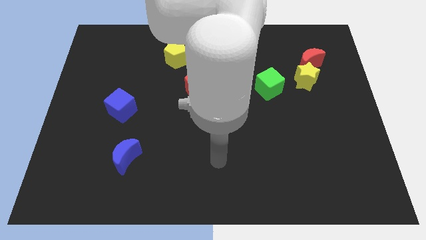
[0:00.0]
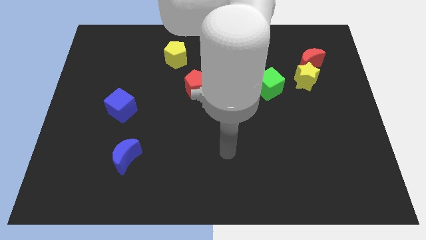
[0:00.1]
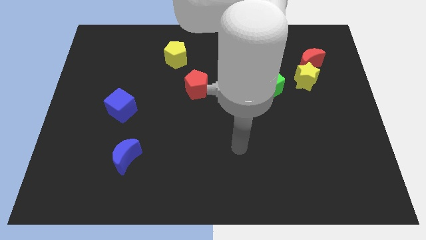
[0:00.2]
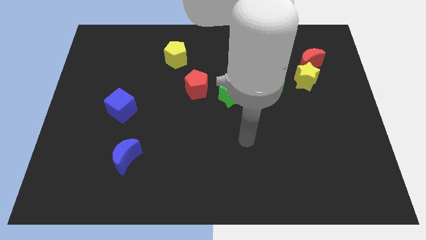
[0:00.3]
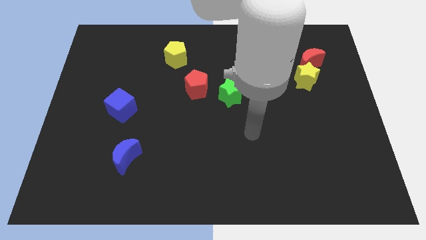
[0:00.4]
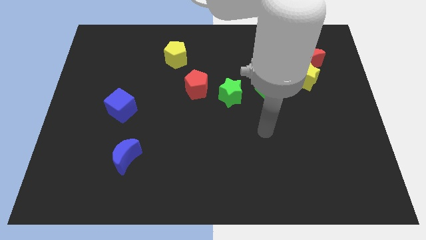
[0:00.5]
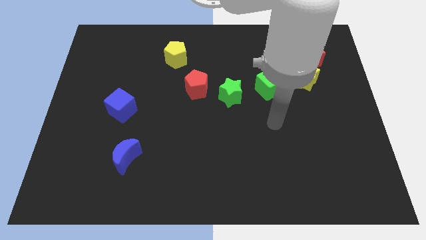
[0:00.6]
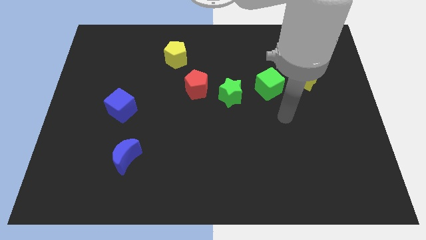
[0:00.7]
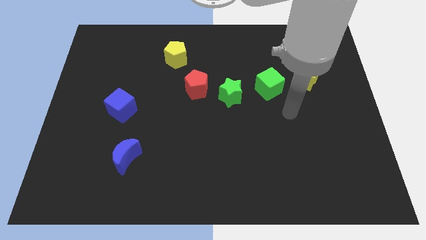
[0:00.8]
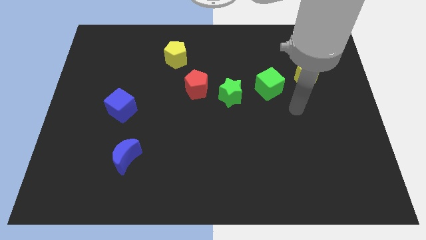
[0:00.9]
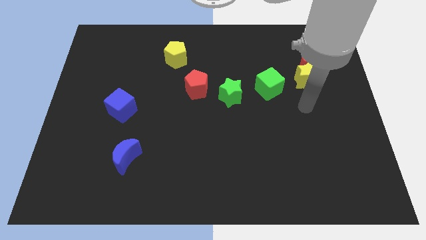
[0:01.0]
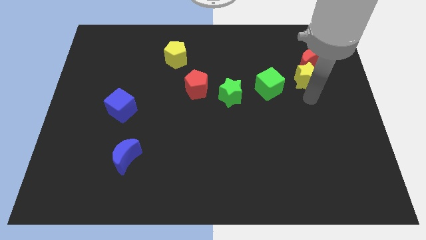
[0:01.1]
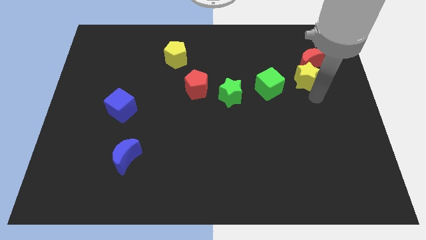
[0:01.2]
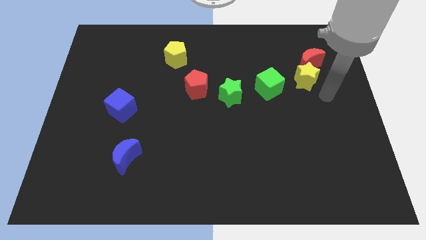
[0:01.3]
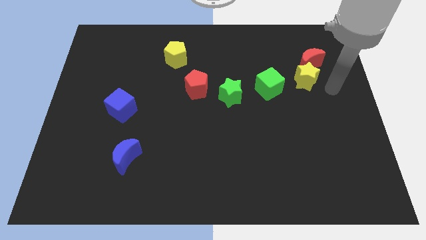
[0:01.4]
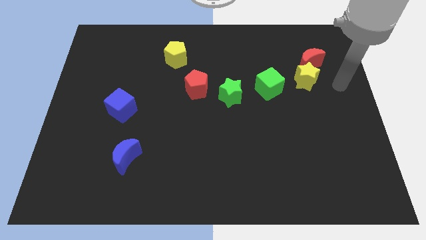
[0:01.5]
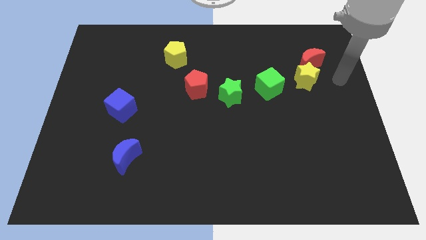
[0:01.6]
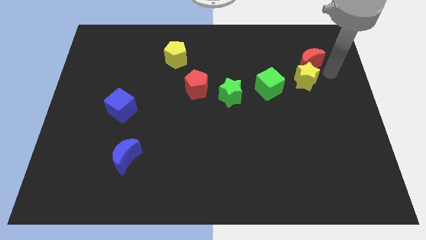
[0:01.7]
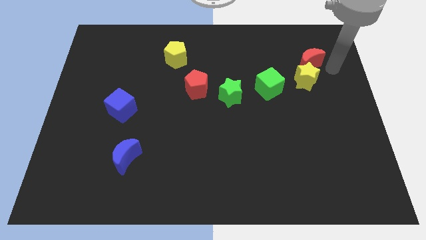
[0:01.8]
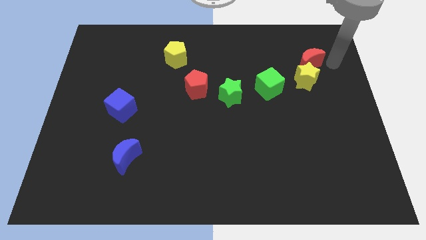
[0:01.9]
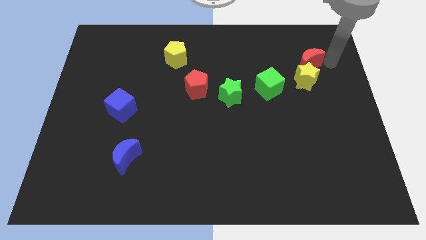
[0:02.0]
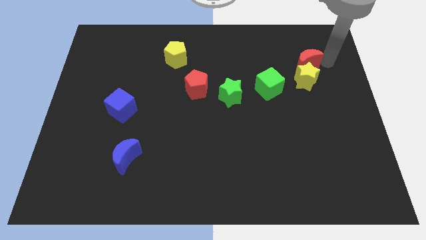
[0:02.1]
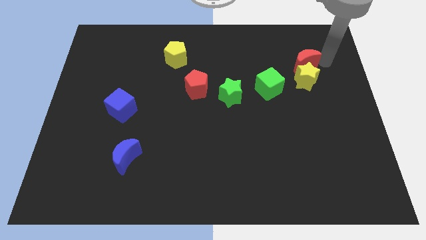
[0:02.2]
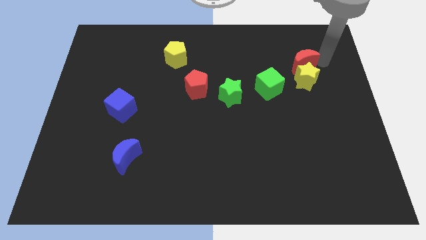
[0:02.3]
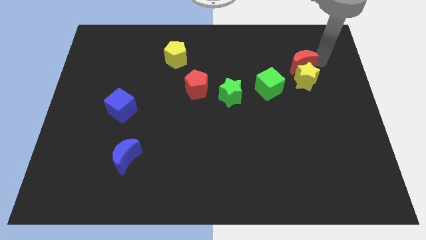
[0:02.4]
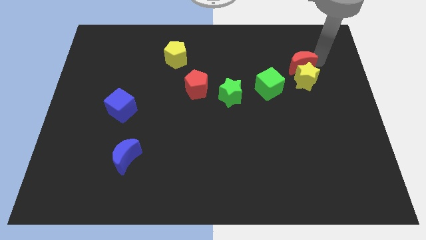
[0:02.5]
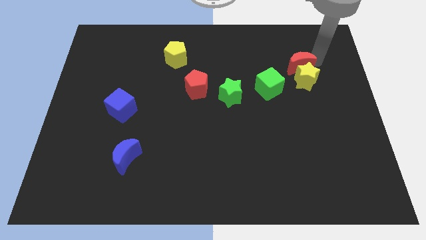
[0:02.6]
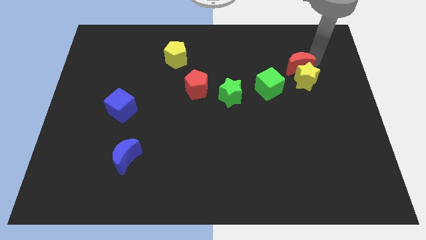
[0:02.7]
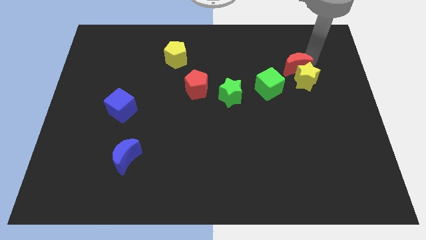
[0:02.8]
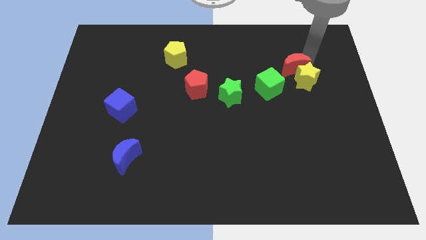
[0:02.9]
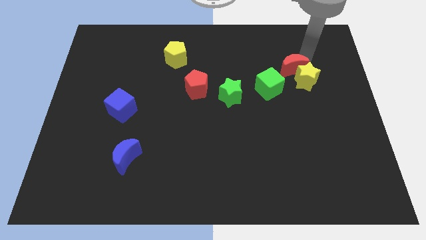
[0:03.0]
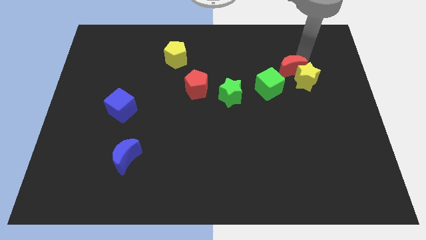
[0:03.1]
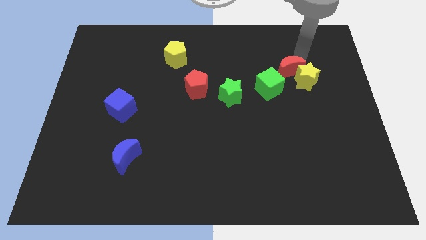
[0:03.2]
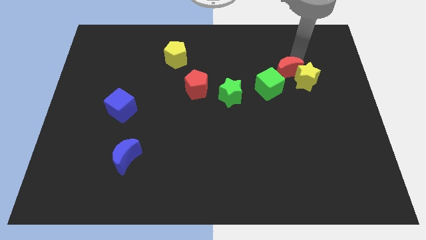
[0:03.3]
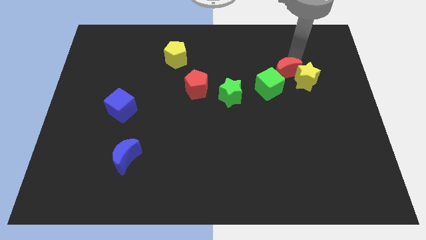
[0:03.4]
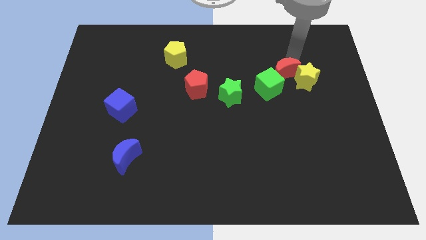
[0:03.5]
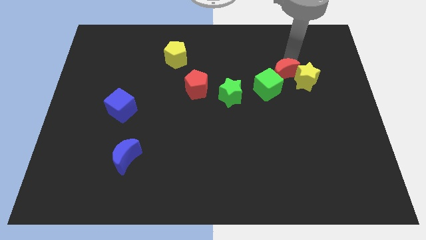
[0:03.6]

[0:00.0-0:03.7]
slightly slide the red moon to the left

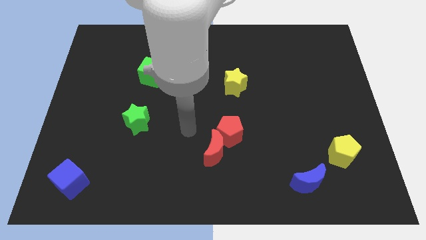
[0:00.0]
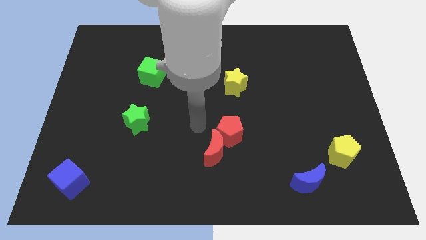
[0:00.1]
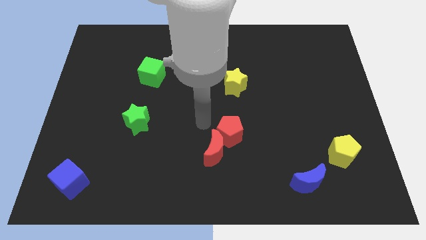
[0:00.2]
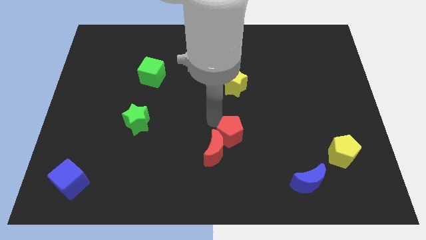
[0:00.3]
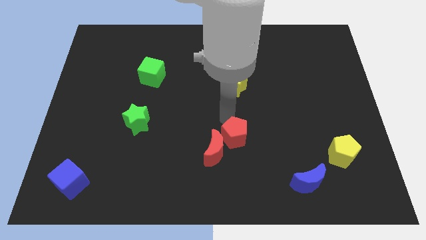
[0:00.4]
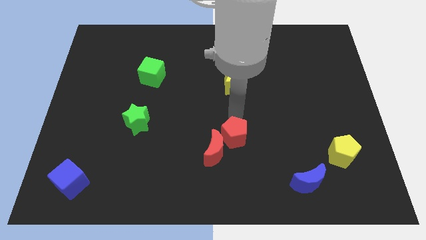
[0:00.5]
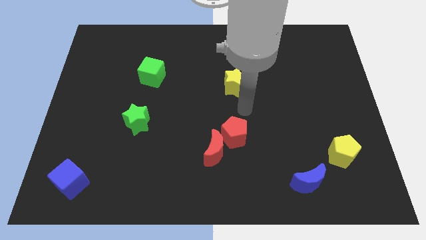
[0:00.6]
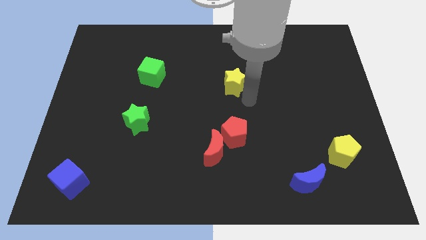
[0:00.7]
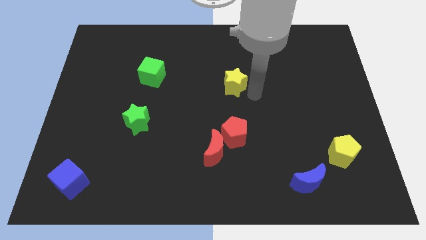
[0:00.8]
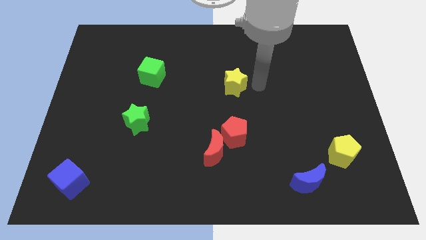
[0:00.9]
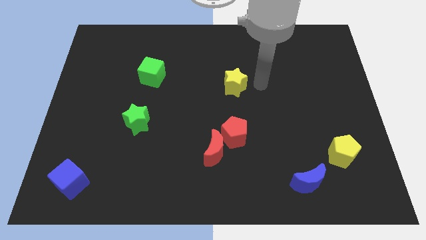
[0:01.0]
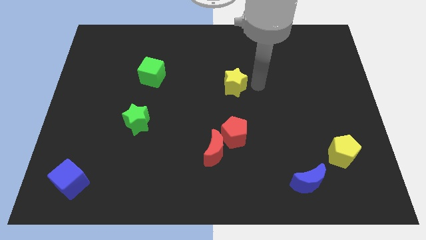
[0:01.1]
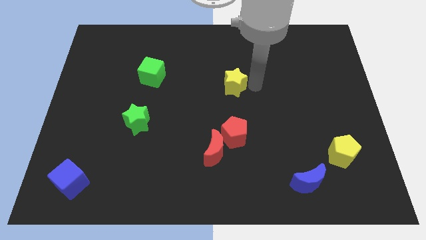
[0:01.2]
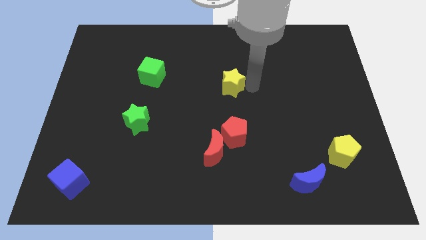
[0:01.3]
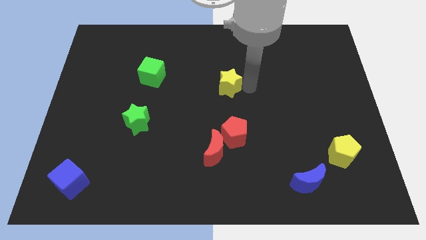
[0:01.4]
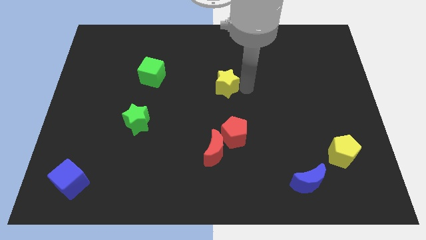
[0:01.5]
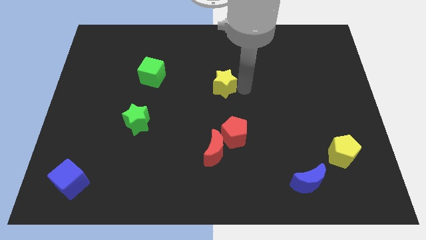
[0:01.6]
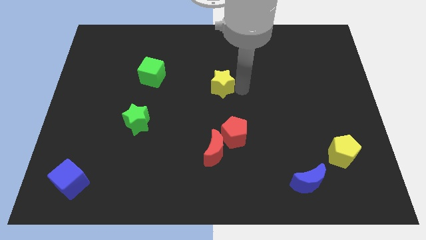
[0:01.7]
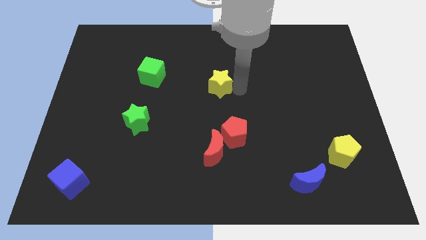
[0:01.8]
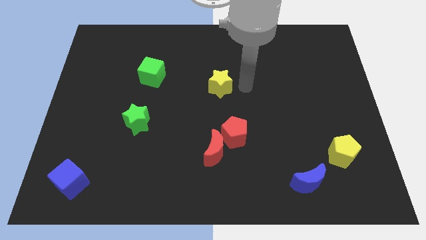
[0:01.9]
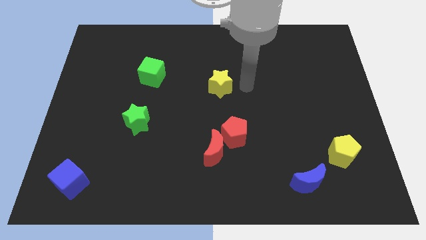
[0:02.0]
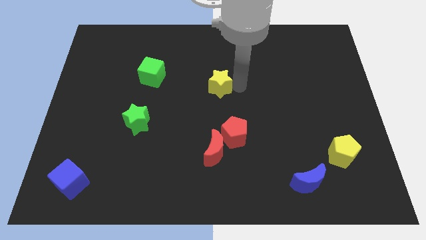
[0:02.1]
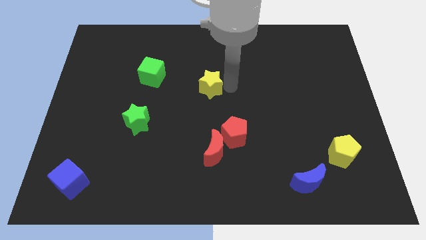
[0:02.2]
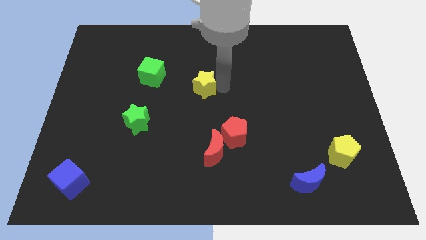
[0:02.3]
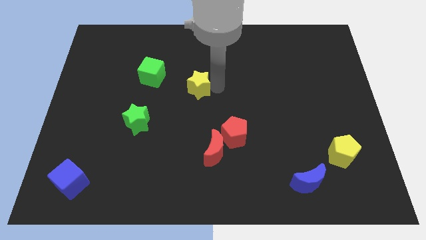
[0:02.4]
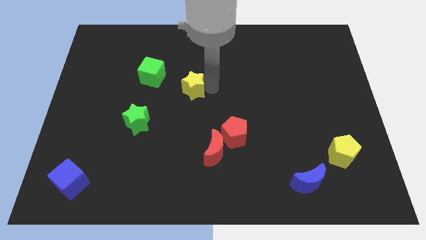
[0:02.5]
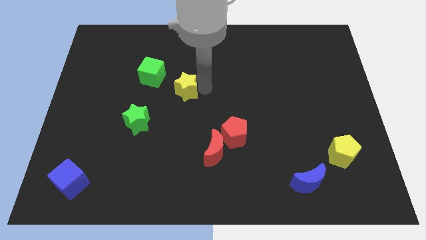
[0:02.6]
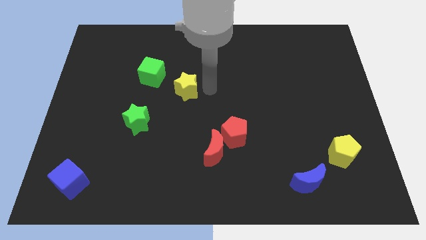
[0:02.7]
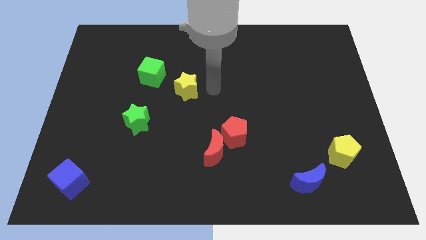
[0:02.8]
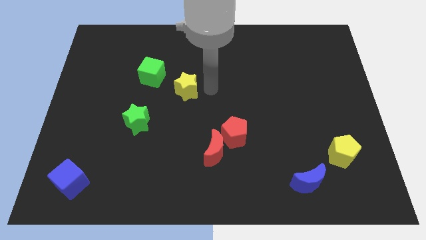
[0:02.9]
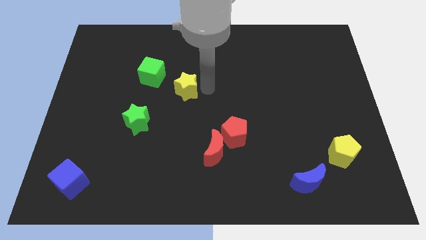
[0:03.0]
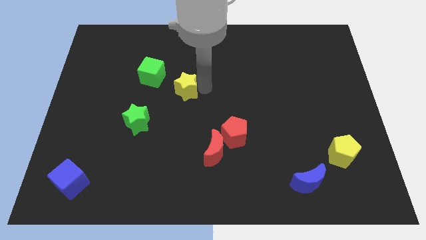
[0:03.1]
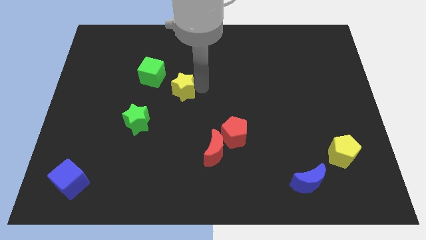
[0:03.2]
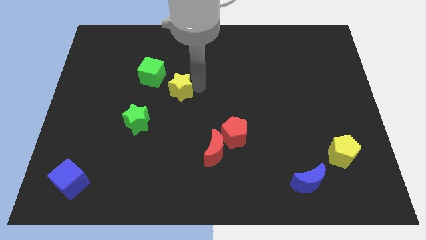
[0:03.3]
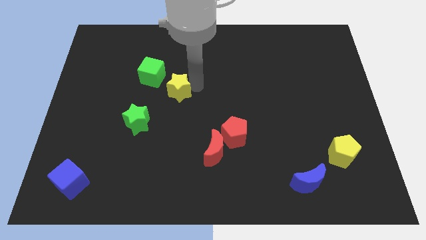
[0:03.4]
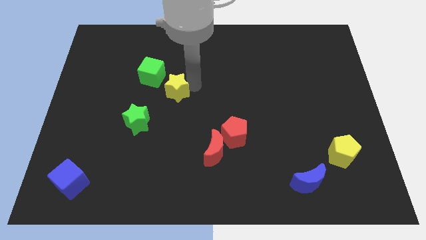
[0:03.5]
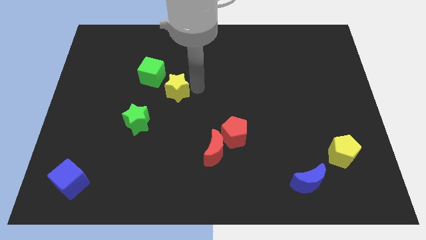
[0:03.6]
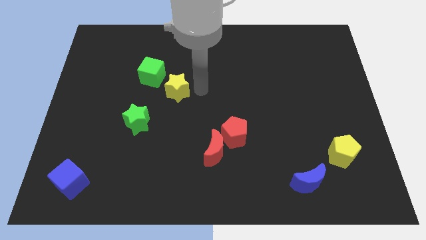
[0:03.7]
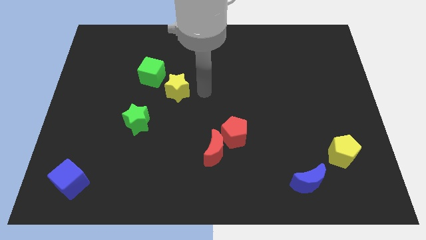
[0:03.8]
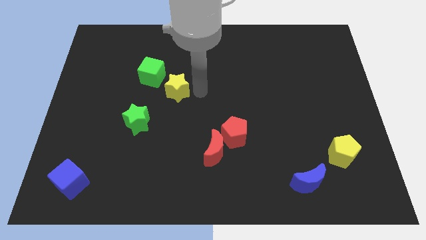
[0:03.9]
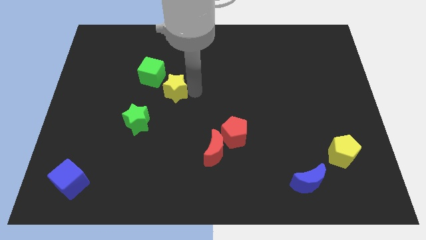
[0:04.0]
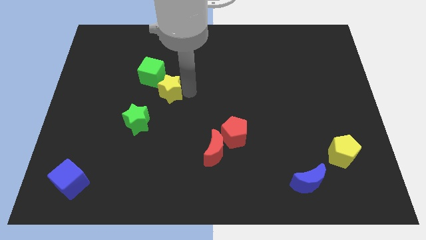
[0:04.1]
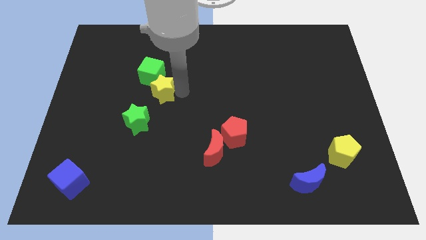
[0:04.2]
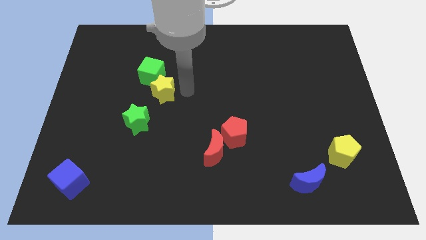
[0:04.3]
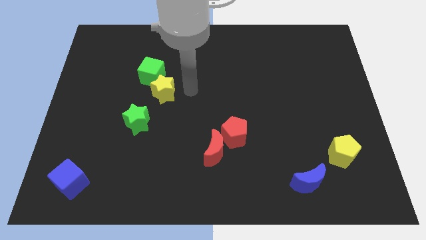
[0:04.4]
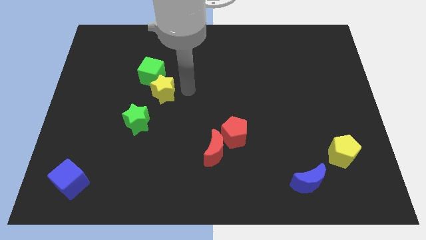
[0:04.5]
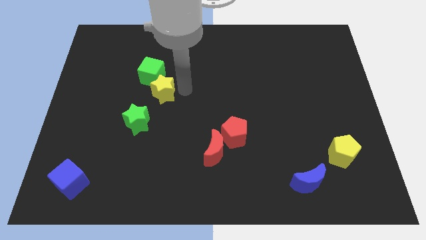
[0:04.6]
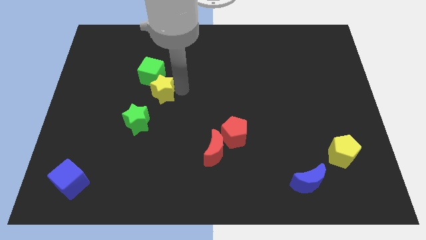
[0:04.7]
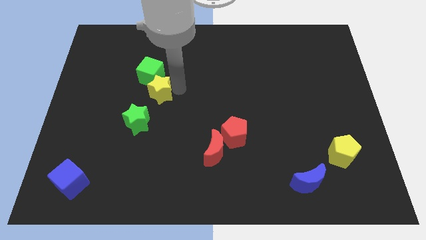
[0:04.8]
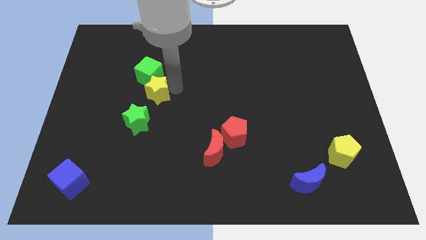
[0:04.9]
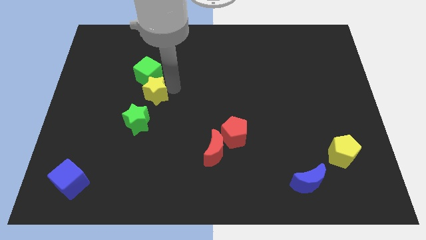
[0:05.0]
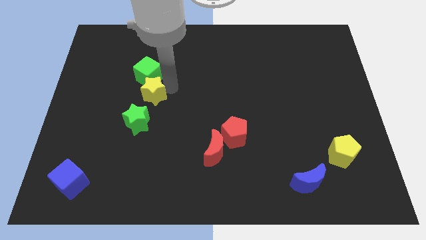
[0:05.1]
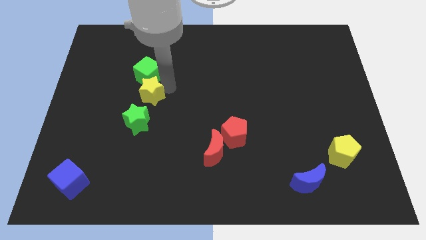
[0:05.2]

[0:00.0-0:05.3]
slide the yellow star to the left
